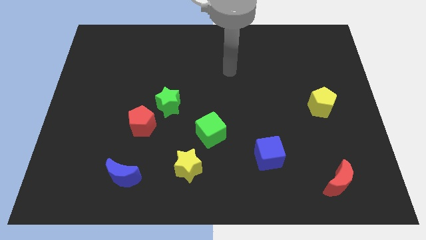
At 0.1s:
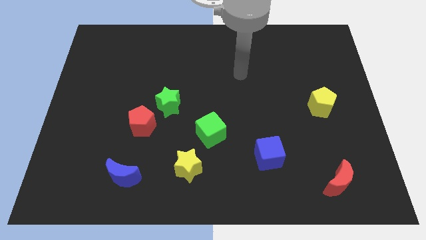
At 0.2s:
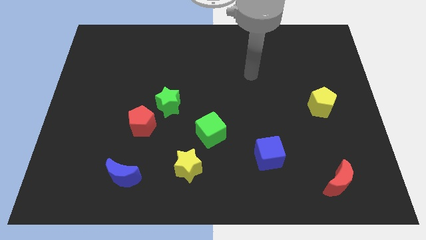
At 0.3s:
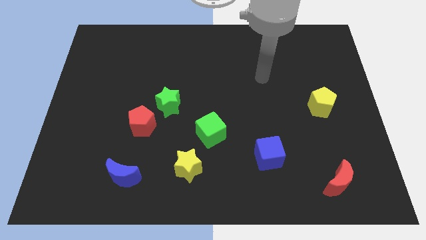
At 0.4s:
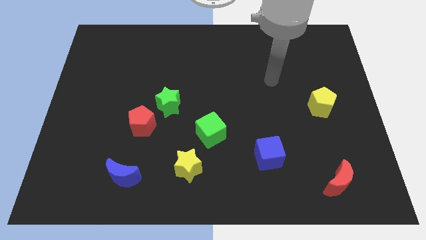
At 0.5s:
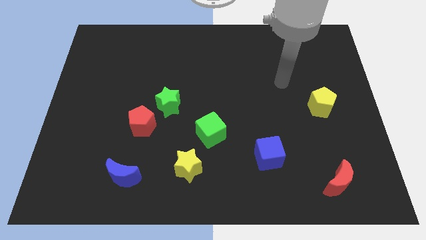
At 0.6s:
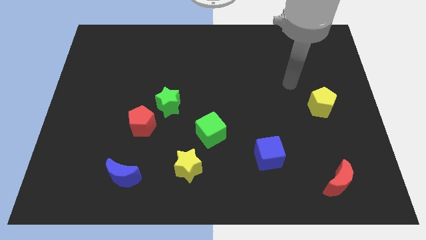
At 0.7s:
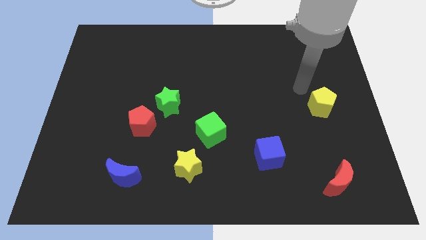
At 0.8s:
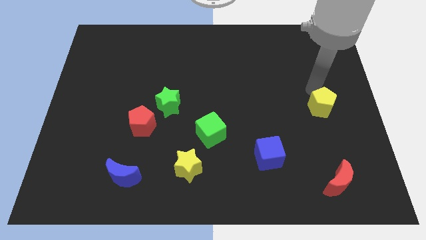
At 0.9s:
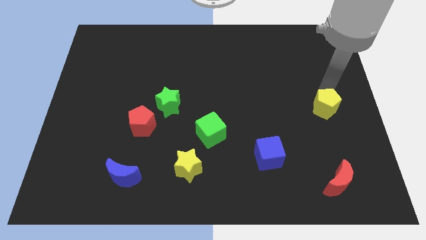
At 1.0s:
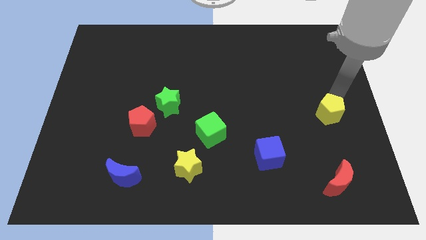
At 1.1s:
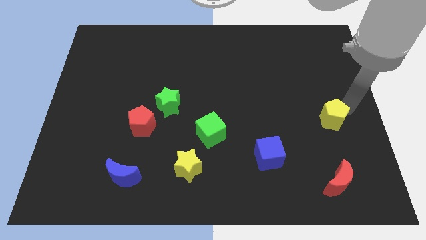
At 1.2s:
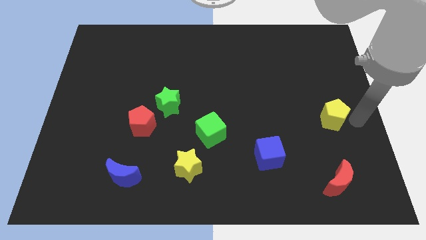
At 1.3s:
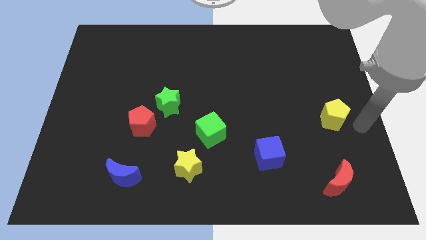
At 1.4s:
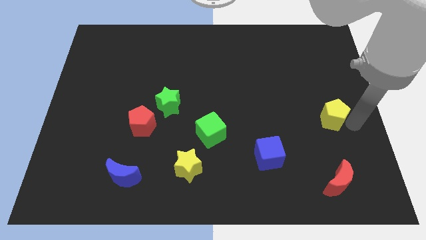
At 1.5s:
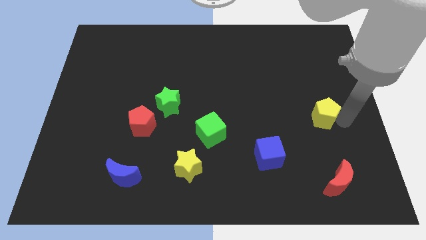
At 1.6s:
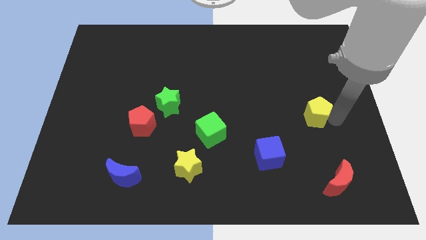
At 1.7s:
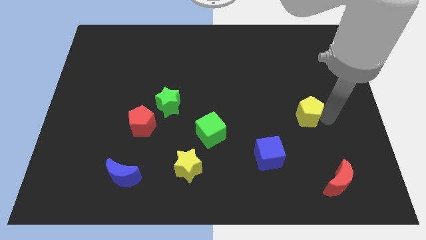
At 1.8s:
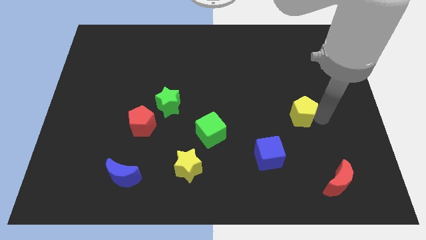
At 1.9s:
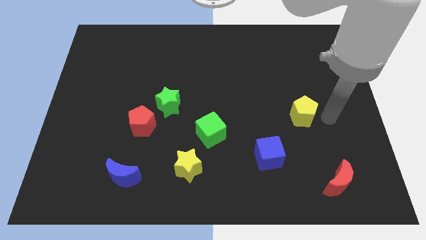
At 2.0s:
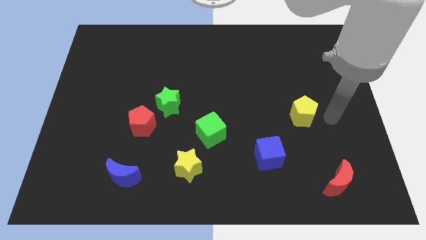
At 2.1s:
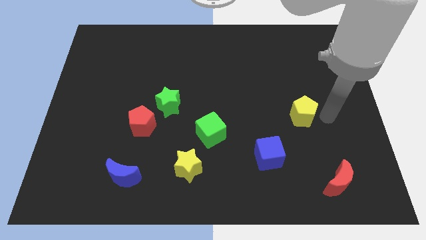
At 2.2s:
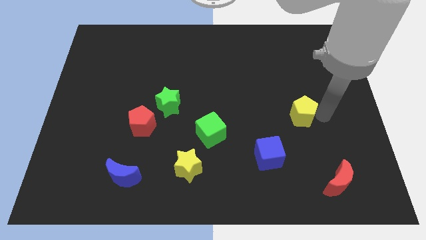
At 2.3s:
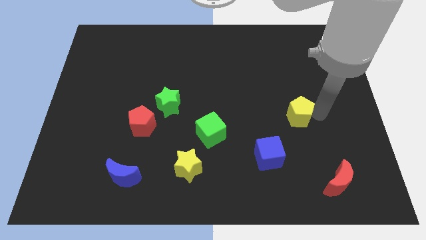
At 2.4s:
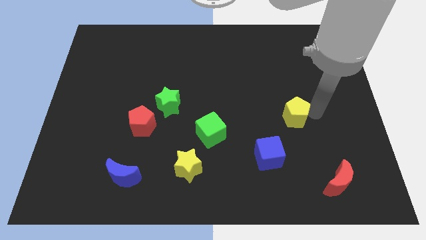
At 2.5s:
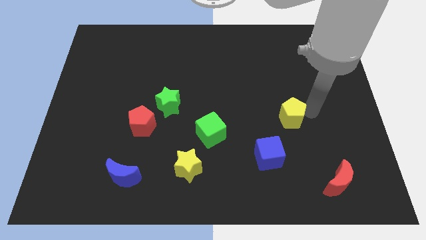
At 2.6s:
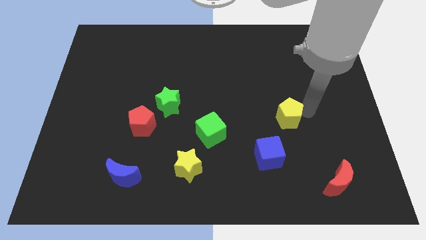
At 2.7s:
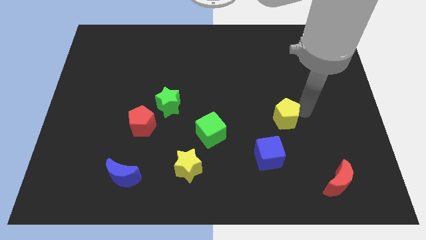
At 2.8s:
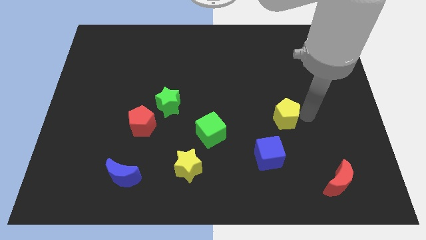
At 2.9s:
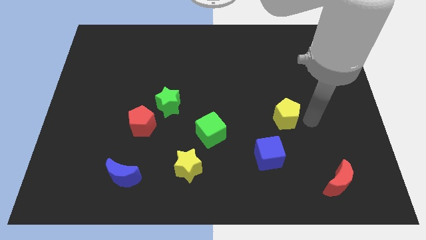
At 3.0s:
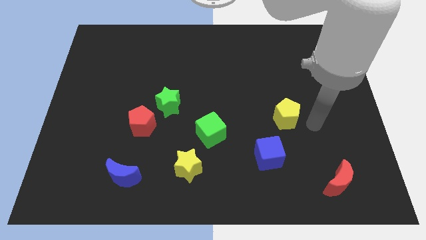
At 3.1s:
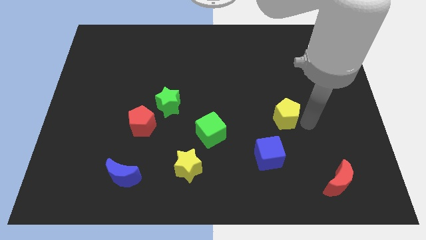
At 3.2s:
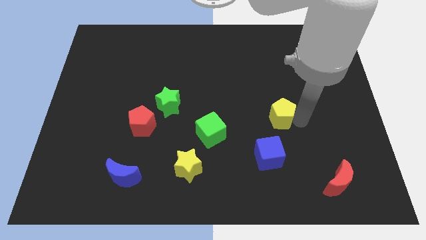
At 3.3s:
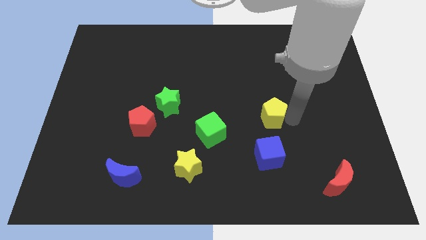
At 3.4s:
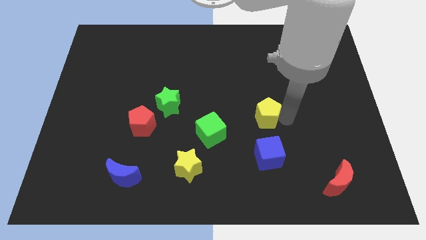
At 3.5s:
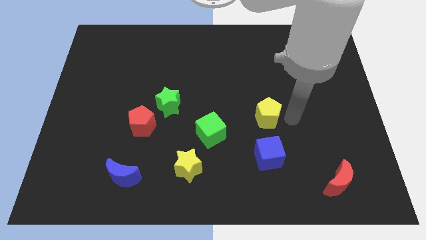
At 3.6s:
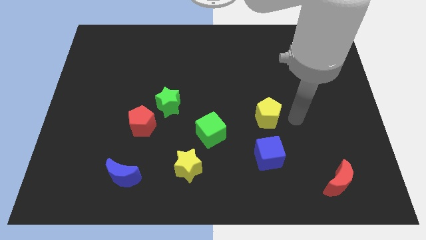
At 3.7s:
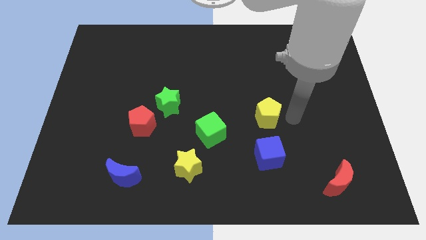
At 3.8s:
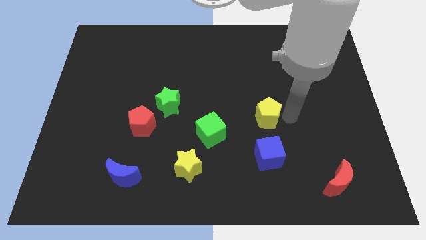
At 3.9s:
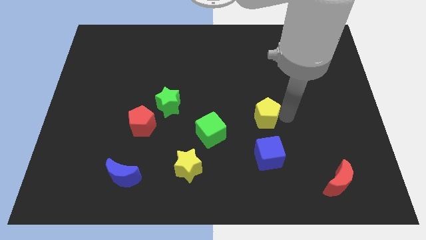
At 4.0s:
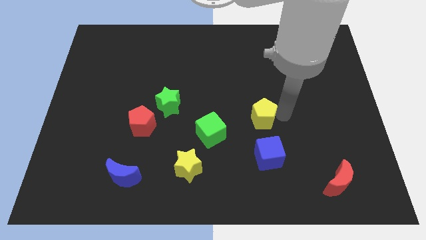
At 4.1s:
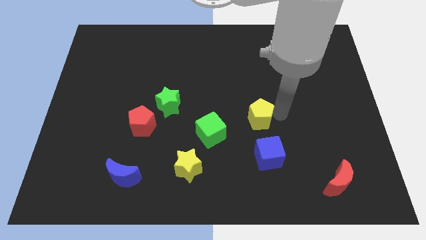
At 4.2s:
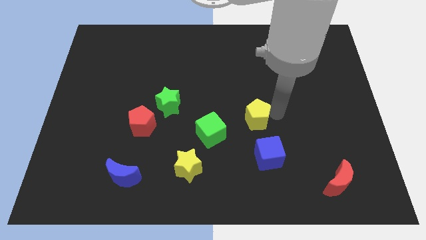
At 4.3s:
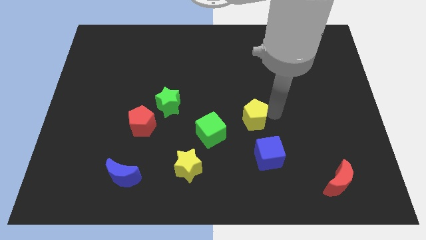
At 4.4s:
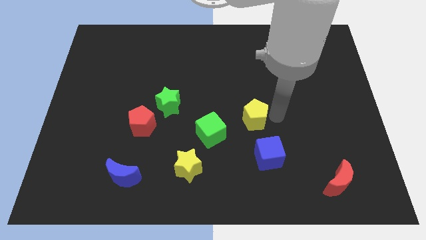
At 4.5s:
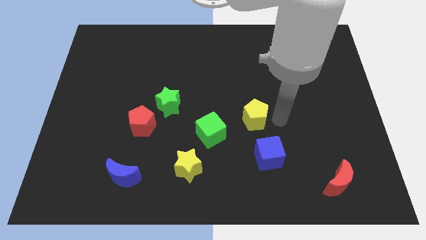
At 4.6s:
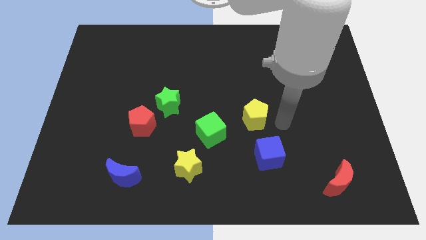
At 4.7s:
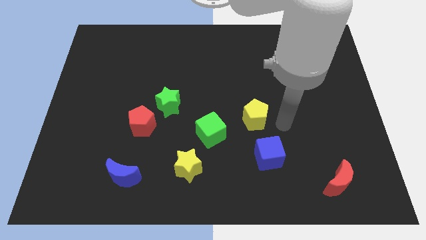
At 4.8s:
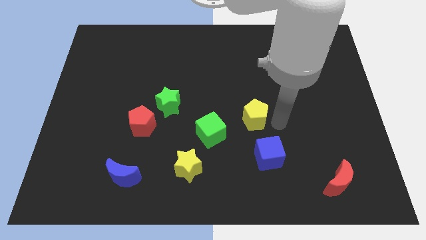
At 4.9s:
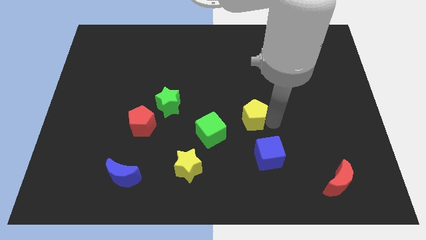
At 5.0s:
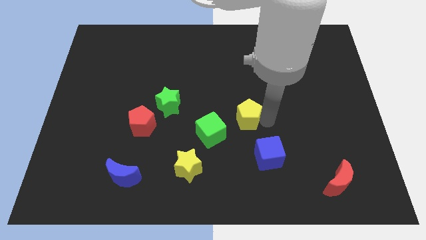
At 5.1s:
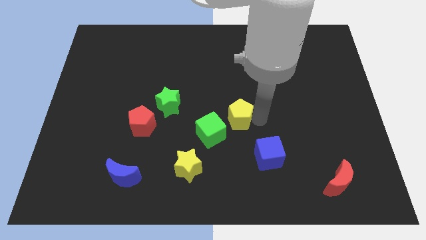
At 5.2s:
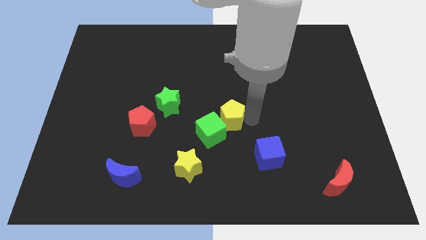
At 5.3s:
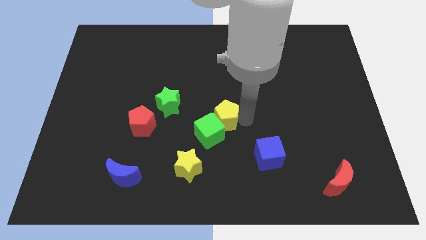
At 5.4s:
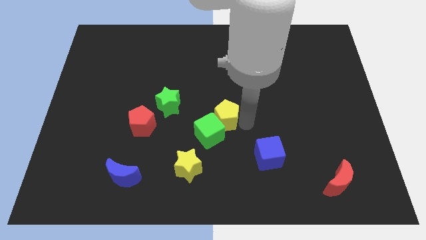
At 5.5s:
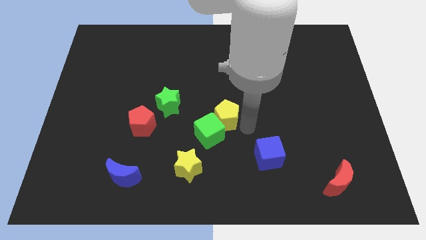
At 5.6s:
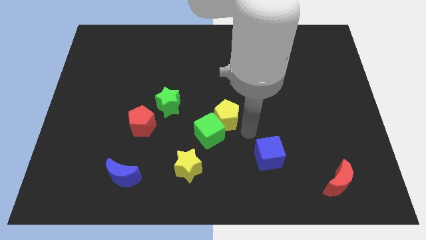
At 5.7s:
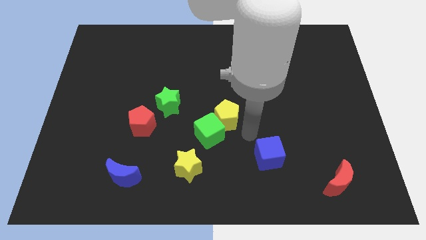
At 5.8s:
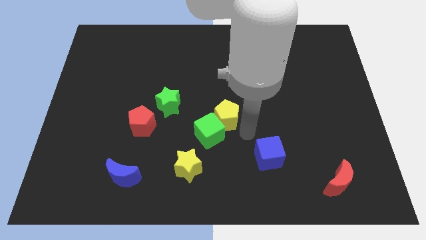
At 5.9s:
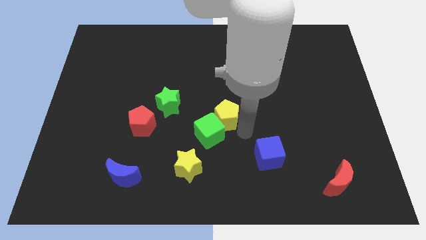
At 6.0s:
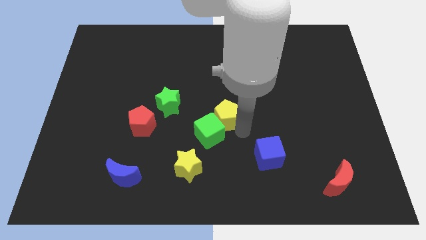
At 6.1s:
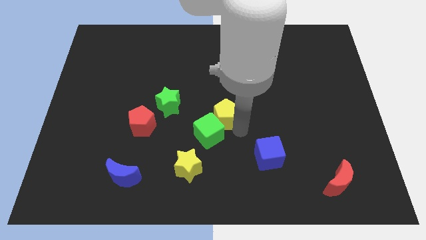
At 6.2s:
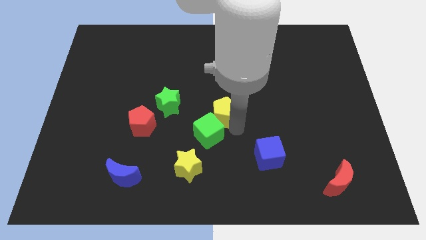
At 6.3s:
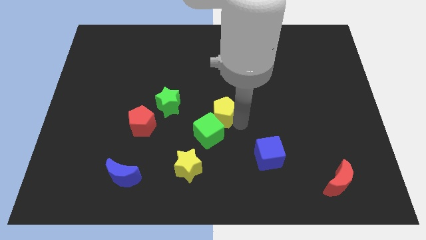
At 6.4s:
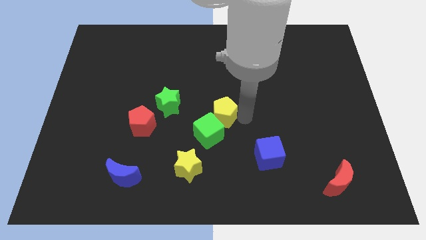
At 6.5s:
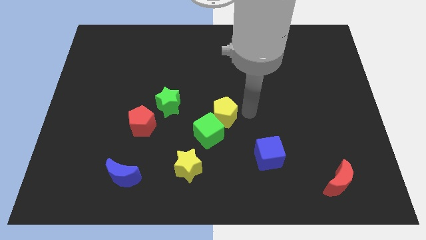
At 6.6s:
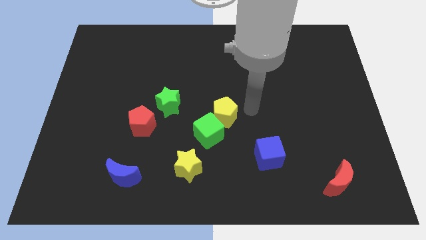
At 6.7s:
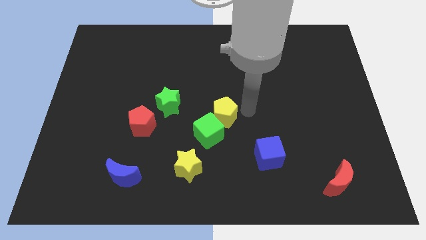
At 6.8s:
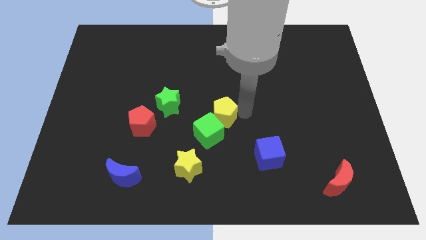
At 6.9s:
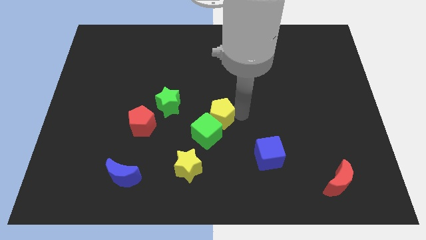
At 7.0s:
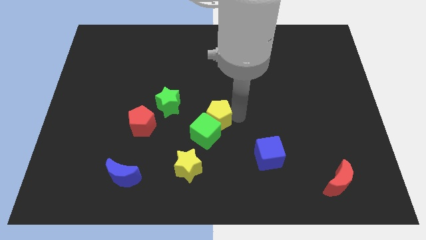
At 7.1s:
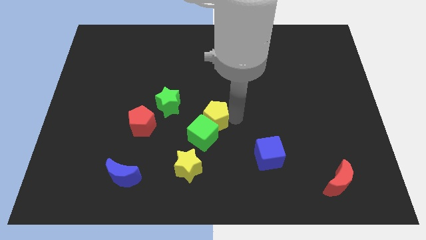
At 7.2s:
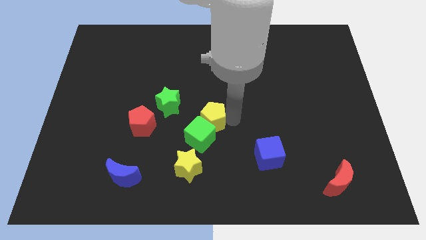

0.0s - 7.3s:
move the yellow pentagon to the right of the red pentagon

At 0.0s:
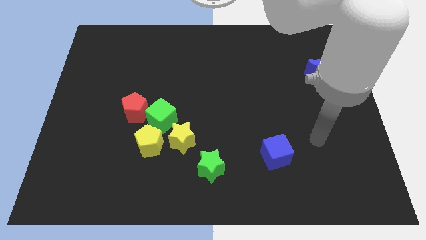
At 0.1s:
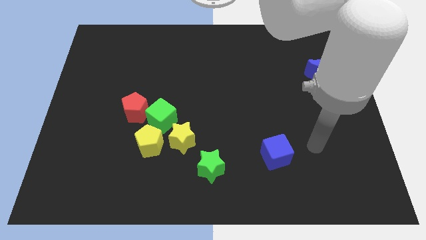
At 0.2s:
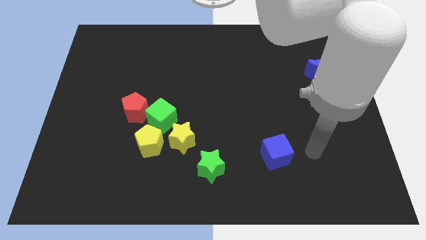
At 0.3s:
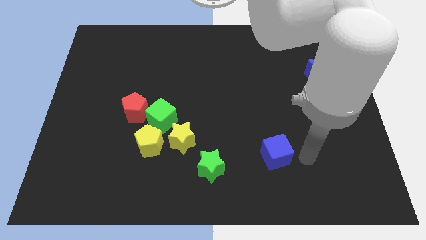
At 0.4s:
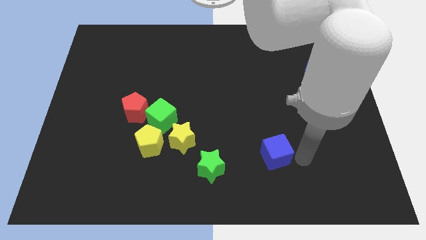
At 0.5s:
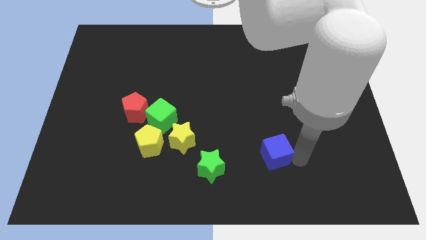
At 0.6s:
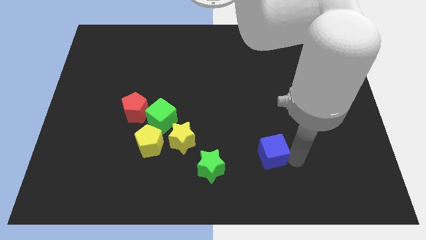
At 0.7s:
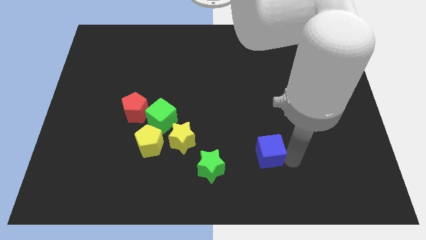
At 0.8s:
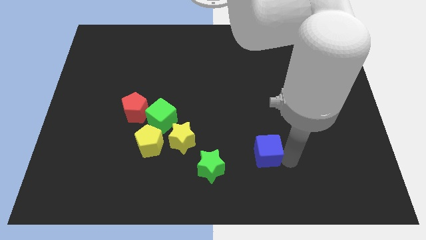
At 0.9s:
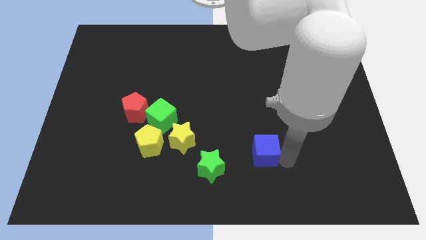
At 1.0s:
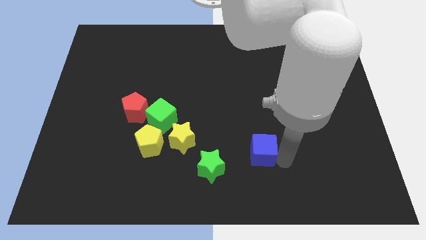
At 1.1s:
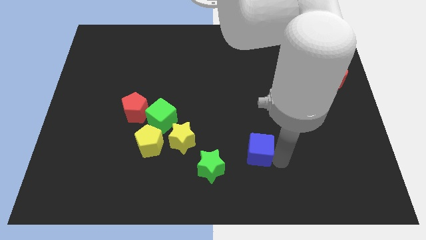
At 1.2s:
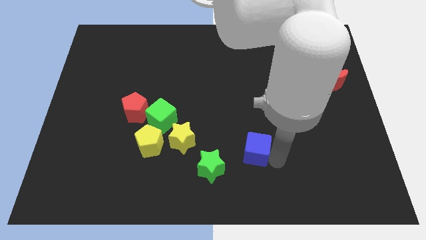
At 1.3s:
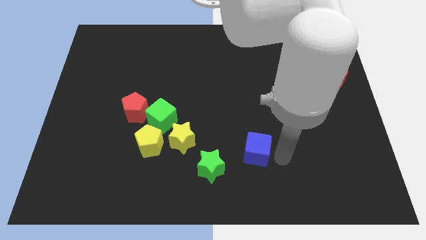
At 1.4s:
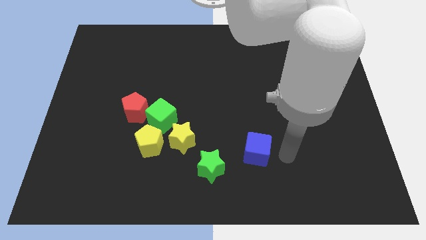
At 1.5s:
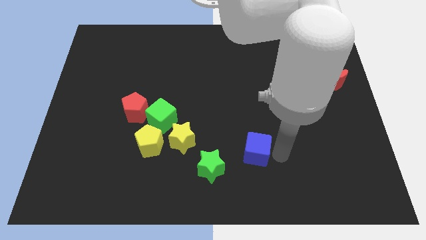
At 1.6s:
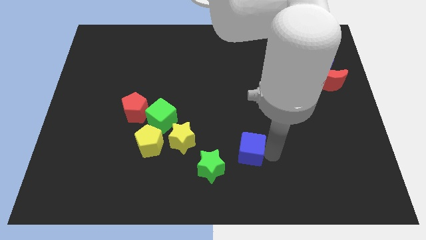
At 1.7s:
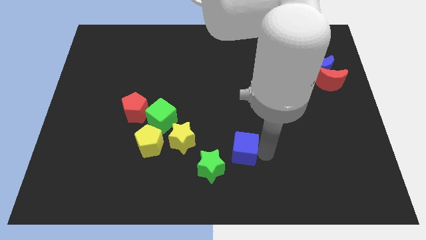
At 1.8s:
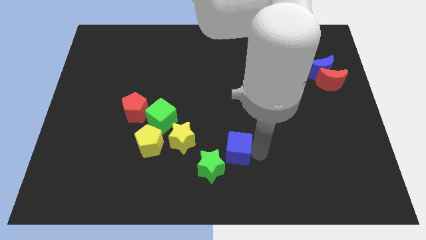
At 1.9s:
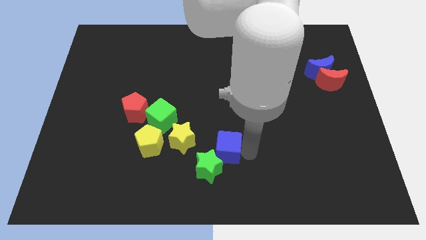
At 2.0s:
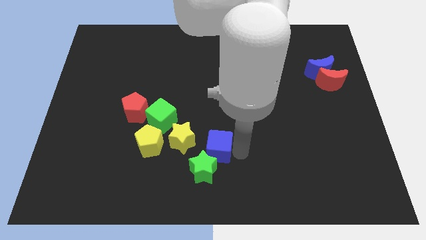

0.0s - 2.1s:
push the blue cube to the right side of the yellow pentagon
